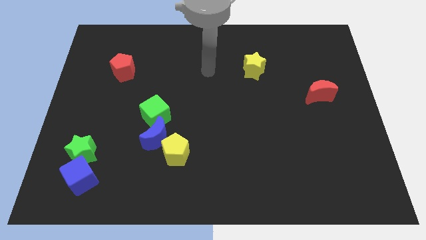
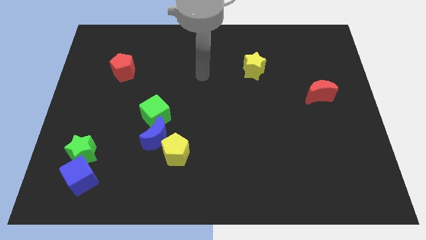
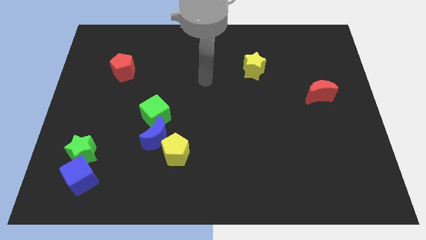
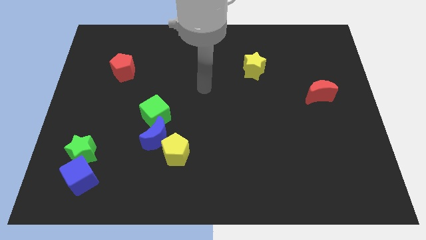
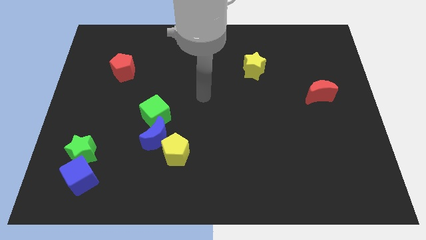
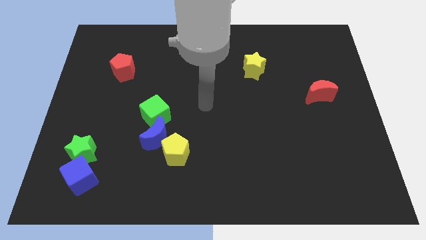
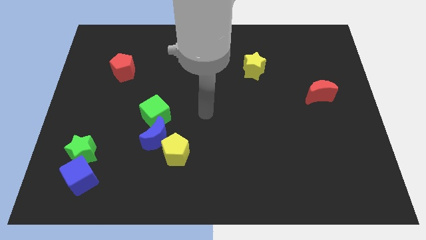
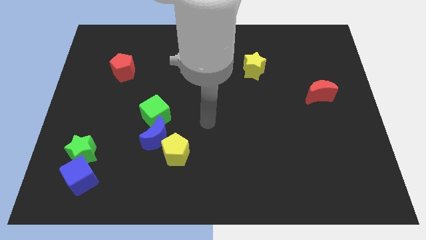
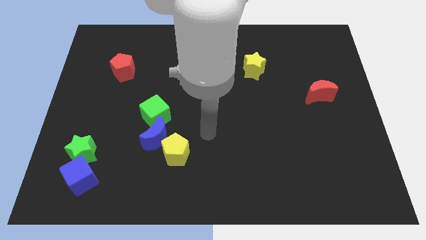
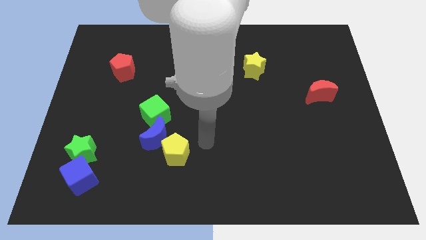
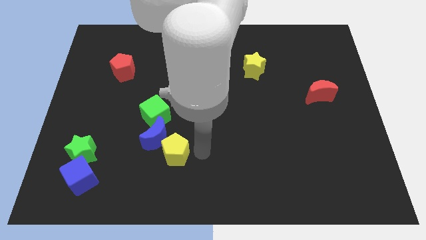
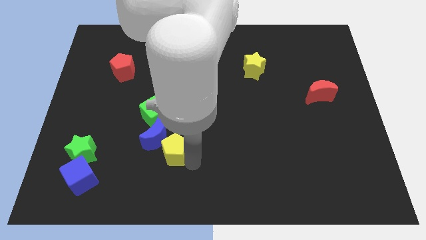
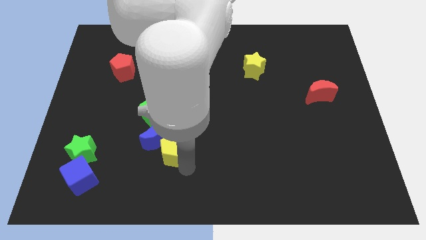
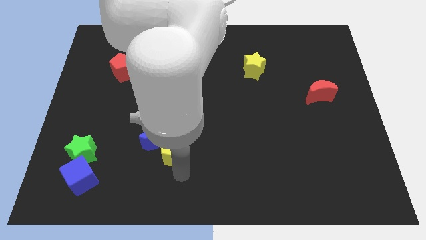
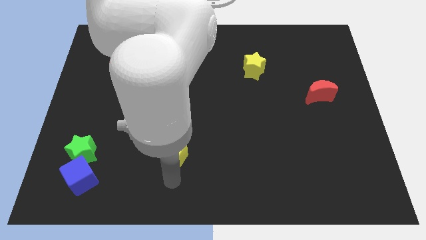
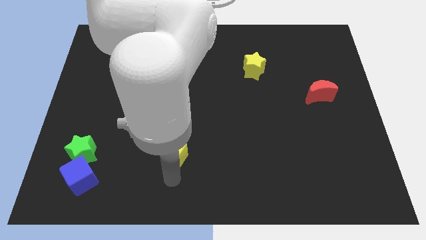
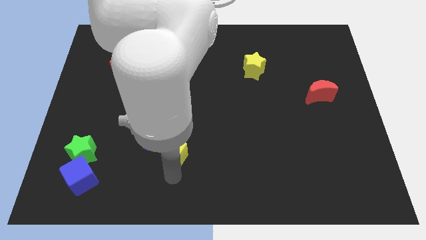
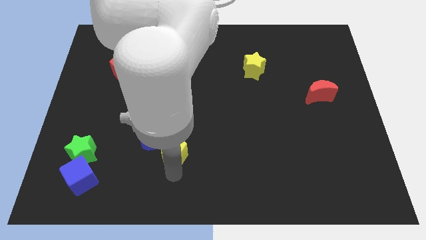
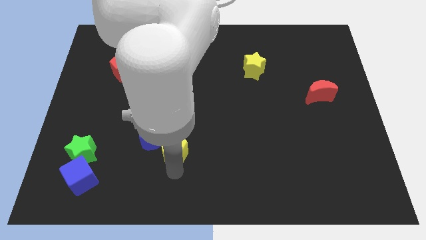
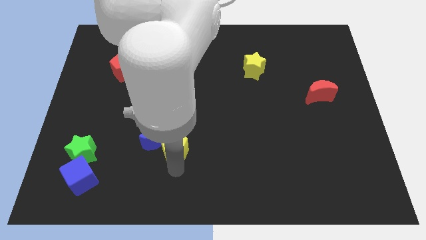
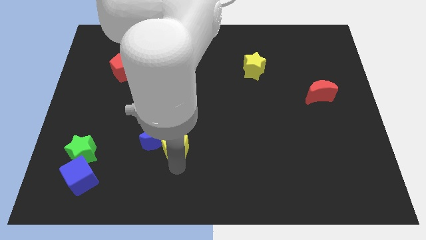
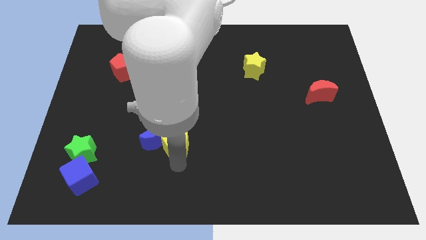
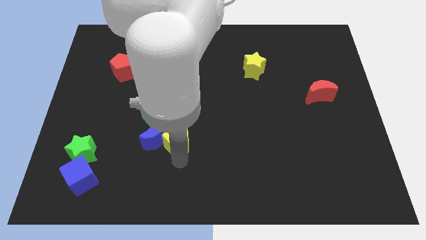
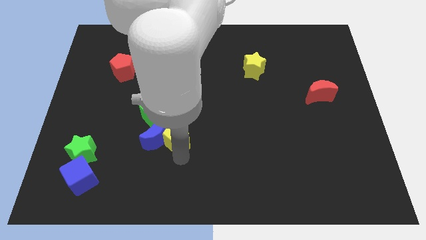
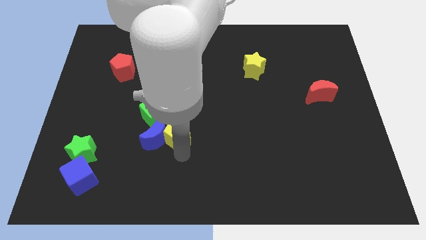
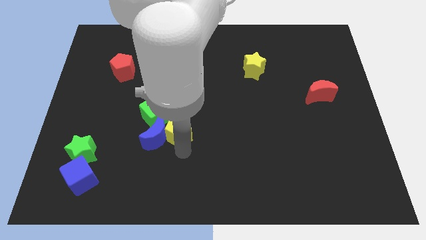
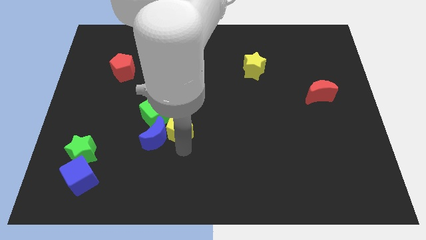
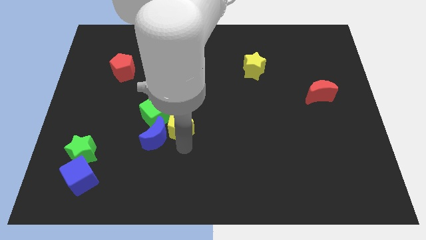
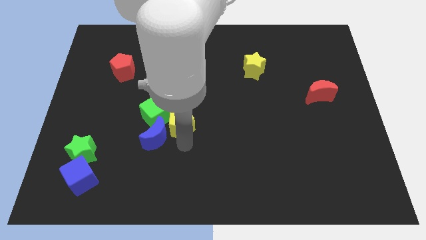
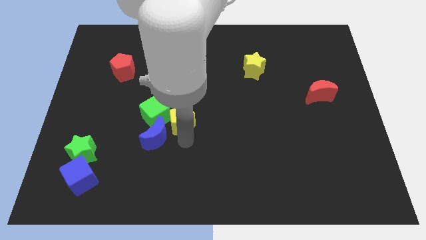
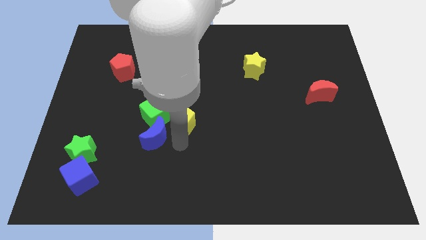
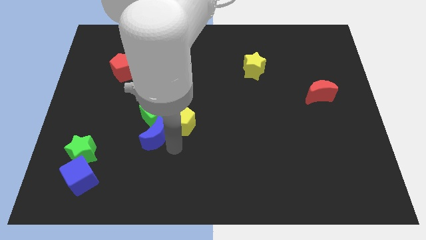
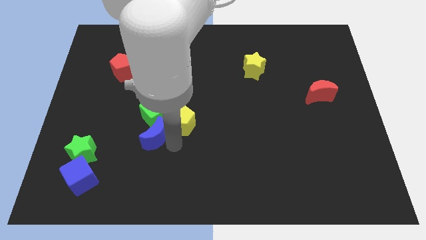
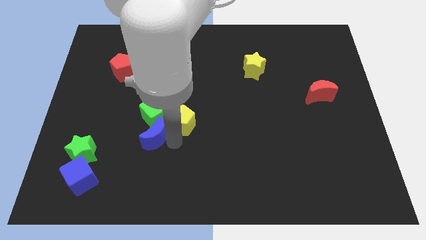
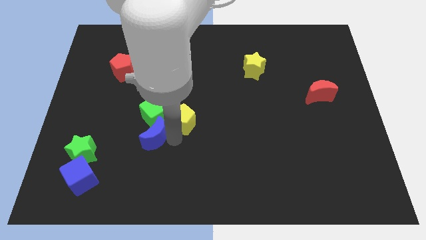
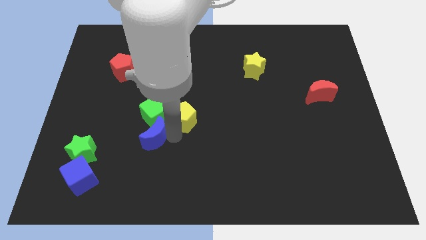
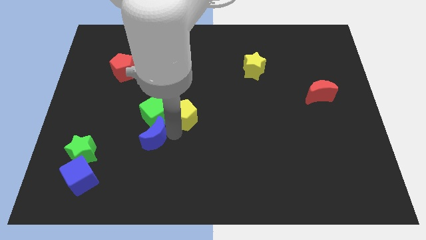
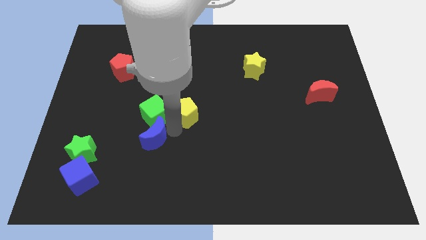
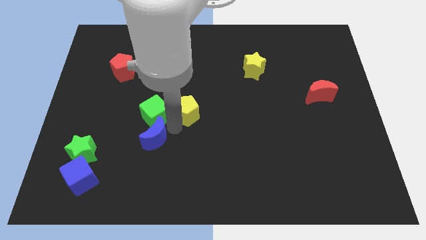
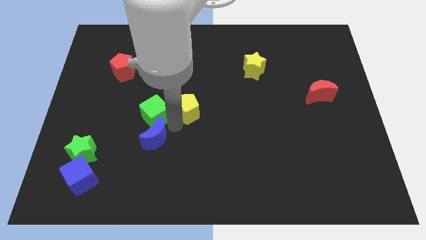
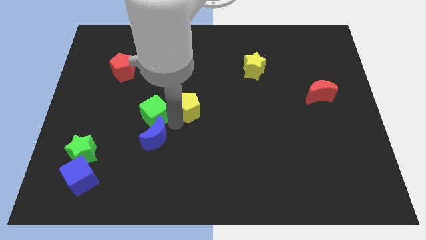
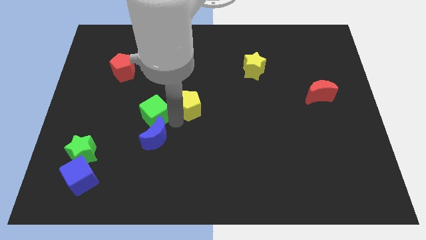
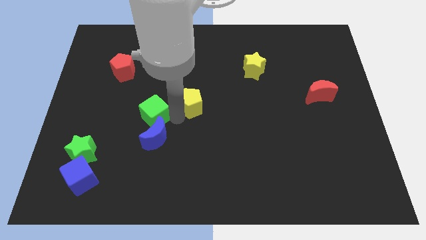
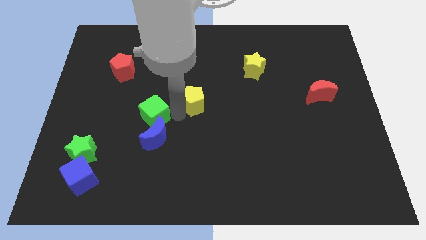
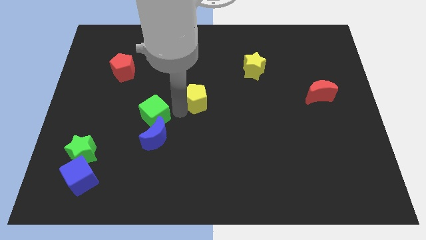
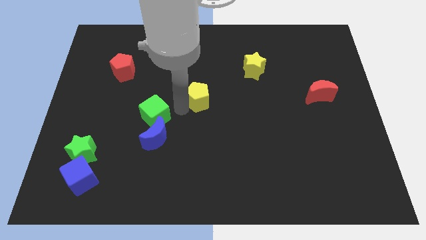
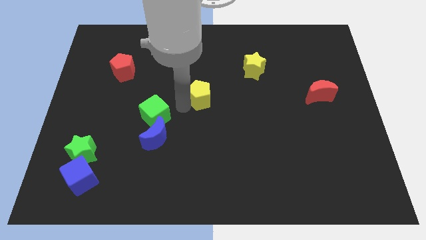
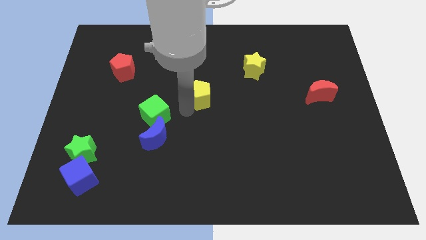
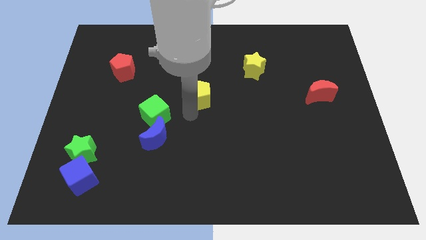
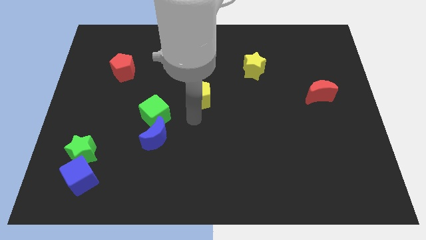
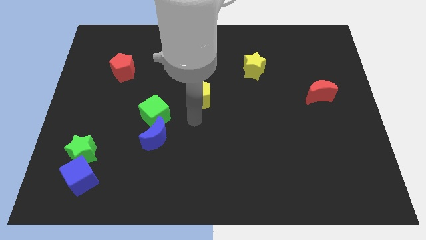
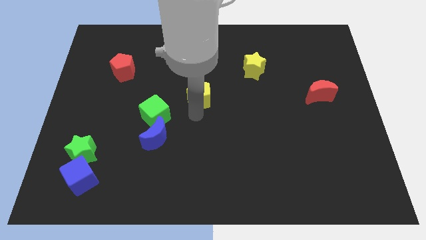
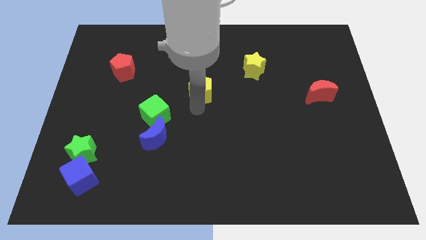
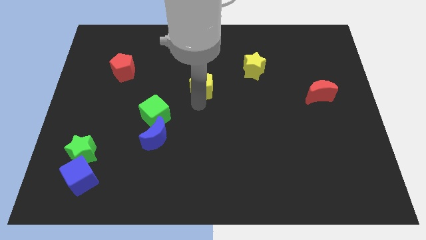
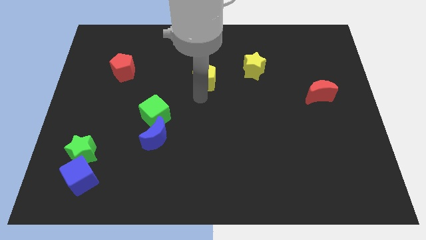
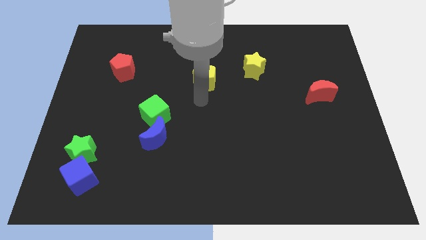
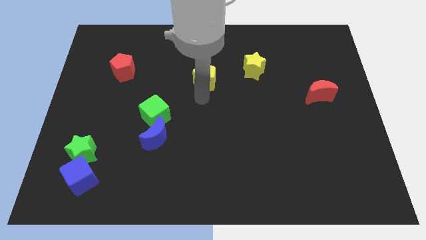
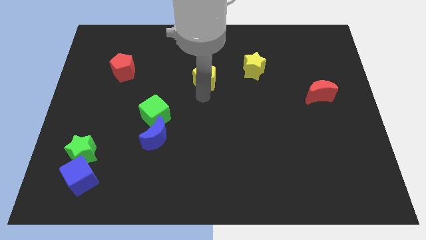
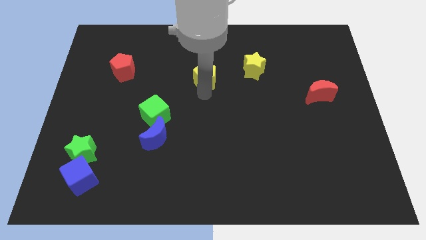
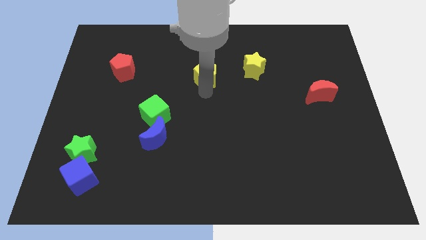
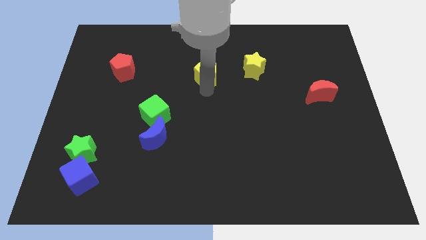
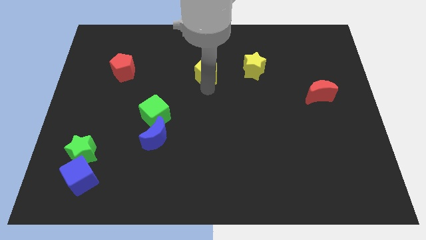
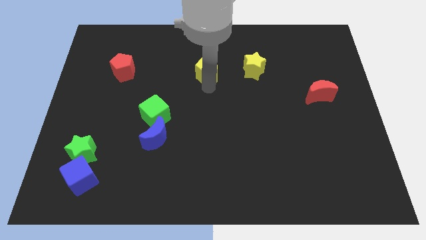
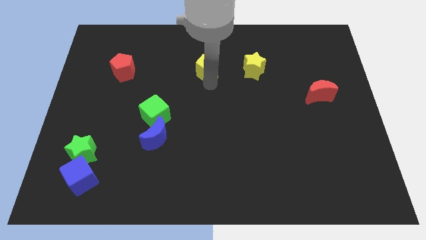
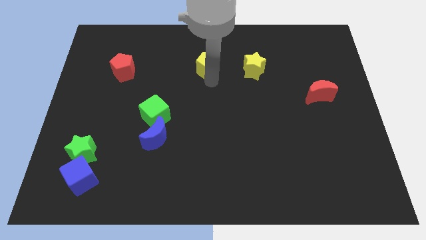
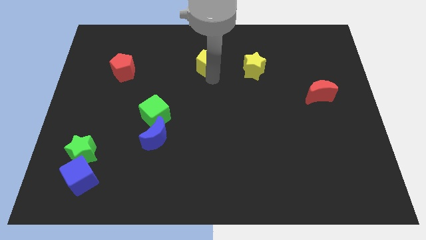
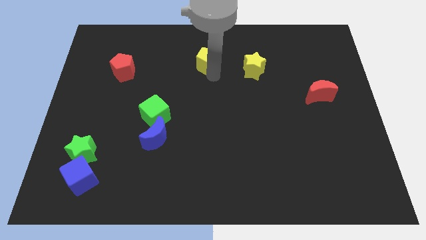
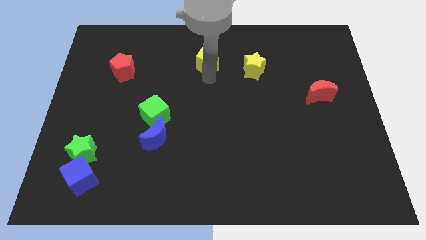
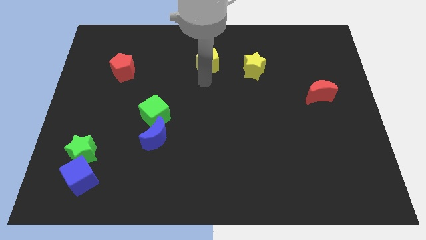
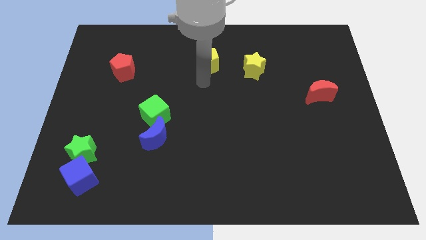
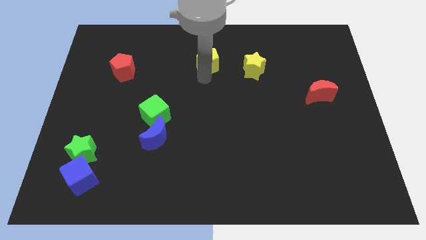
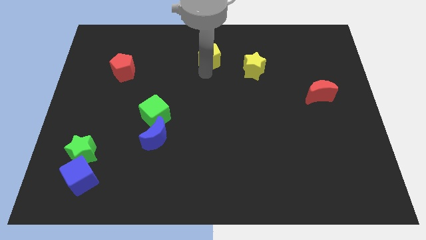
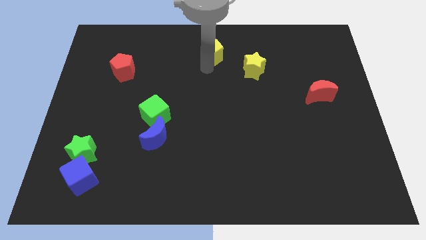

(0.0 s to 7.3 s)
put the yellow pentagon to the top

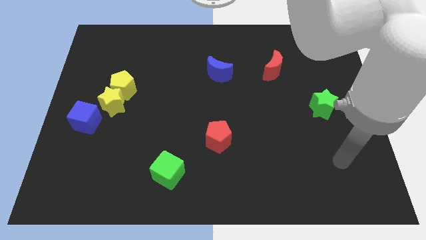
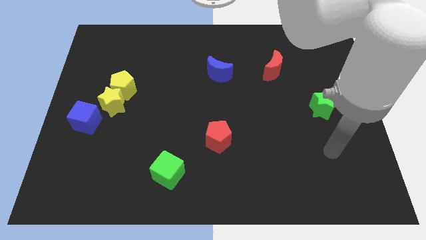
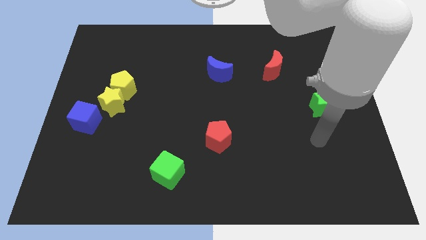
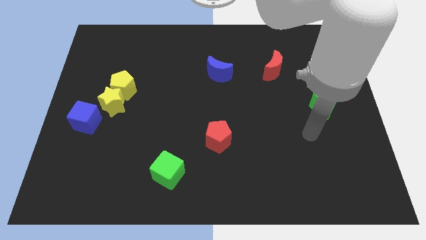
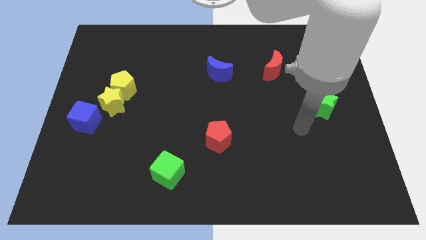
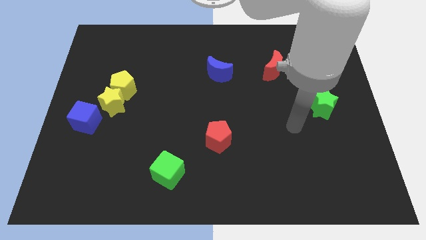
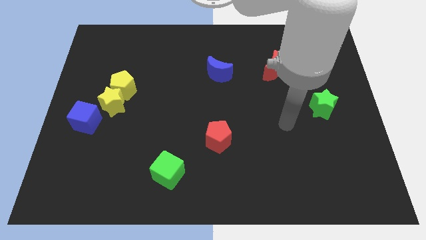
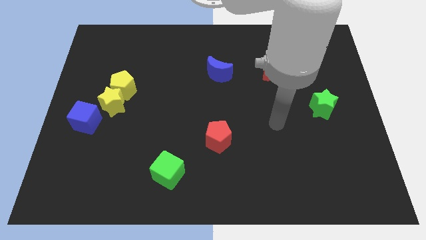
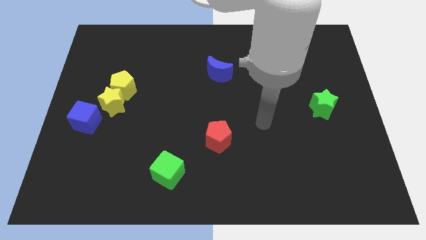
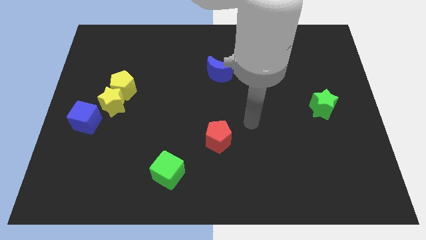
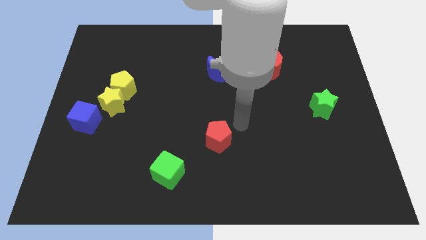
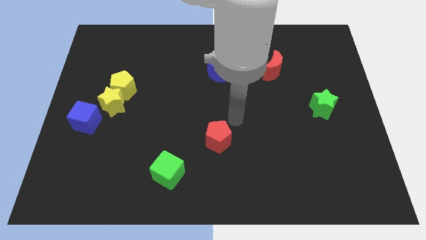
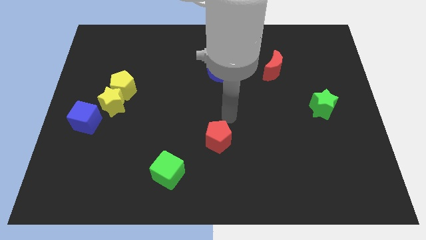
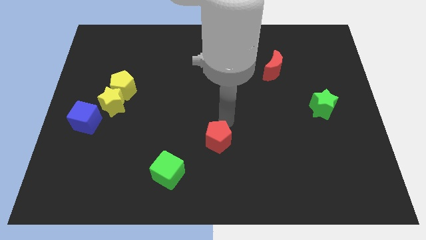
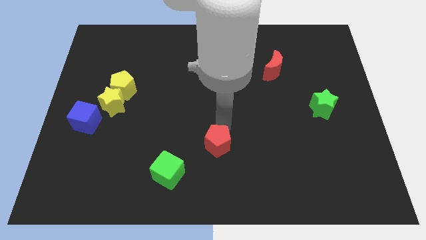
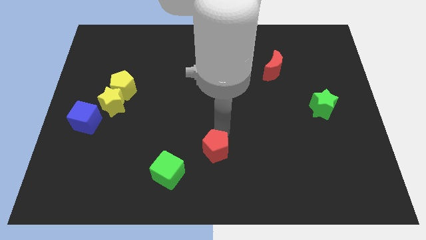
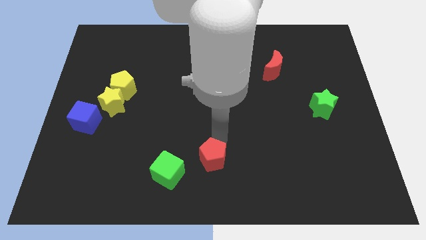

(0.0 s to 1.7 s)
move the red pentagon to the bottom side
